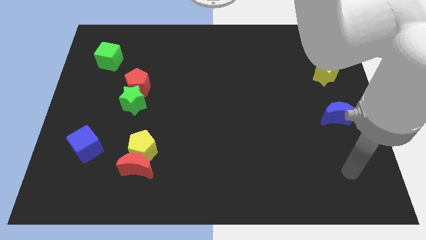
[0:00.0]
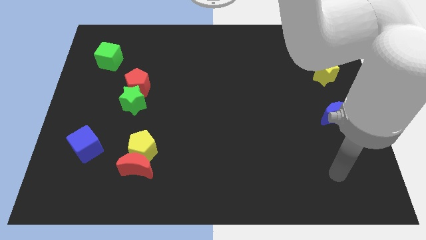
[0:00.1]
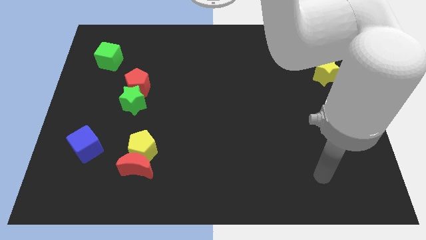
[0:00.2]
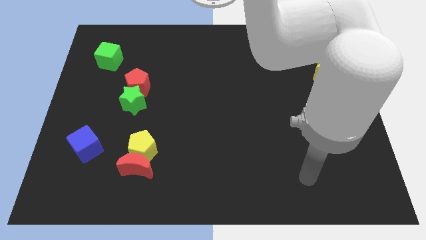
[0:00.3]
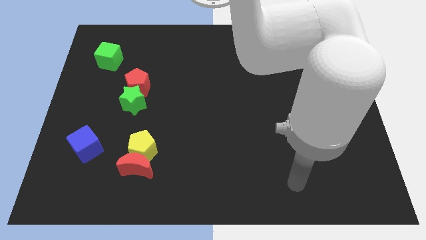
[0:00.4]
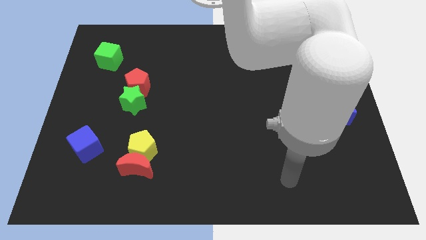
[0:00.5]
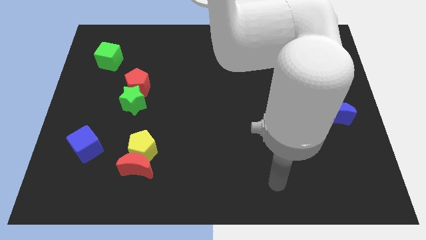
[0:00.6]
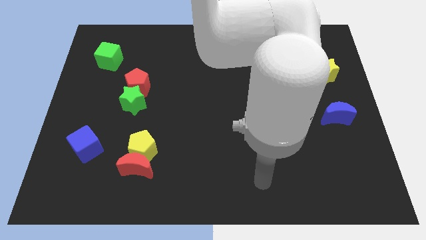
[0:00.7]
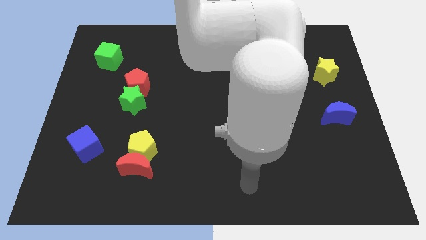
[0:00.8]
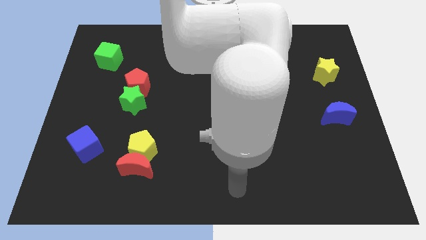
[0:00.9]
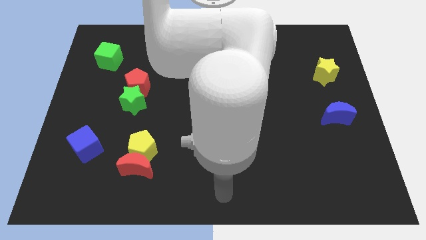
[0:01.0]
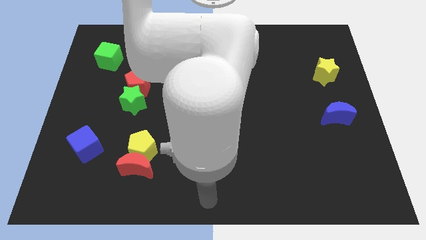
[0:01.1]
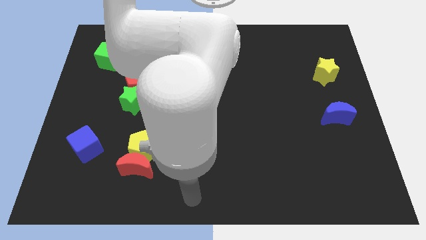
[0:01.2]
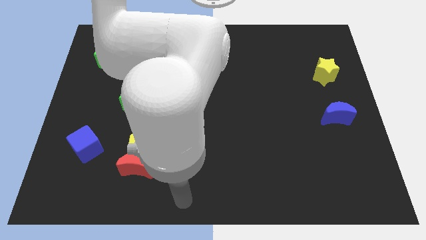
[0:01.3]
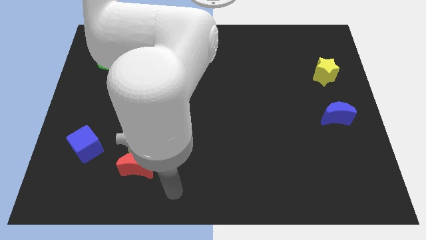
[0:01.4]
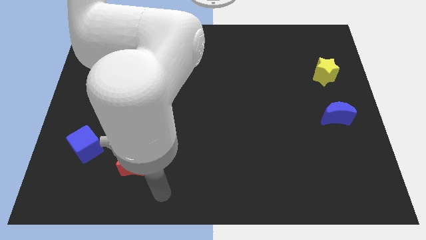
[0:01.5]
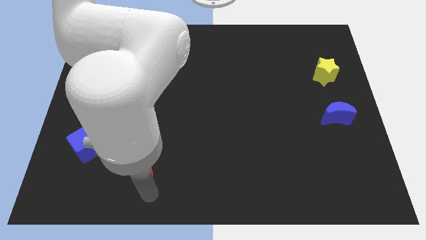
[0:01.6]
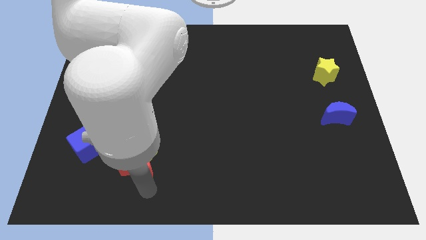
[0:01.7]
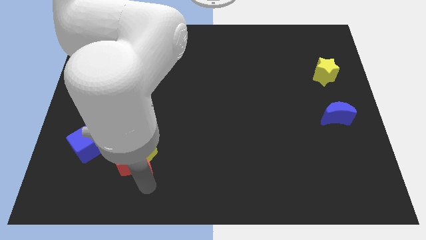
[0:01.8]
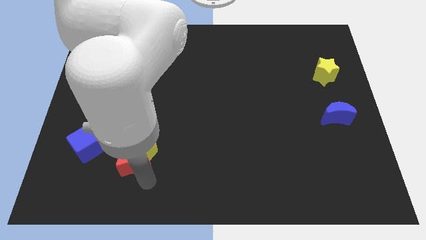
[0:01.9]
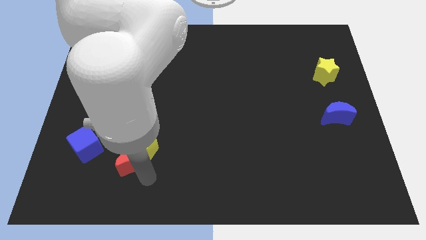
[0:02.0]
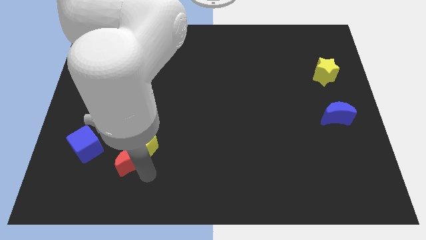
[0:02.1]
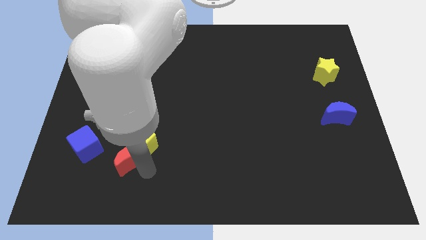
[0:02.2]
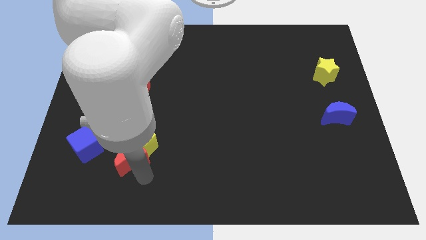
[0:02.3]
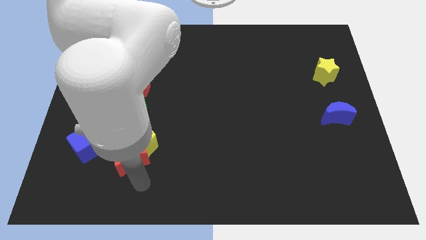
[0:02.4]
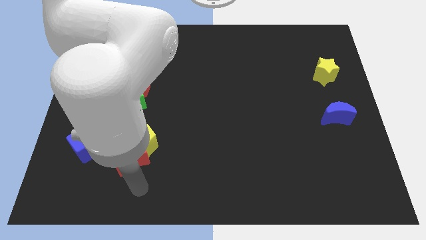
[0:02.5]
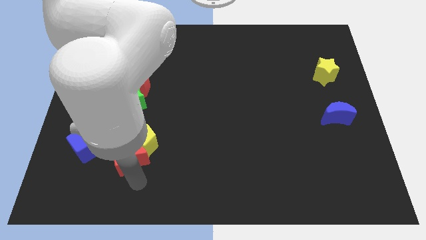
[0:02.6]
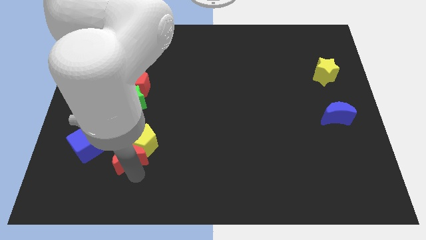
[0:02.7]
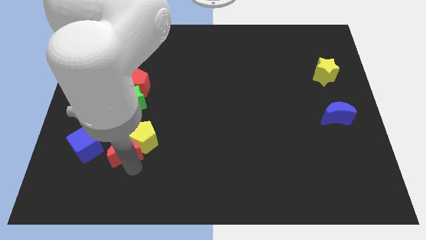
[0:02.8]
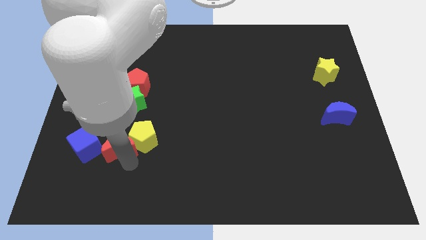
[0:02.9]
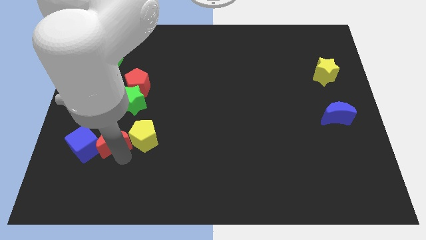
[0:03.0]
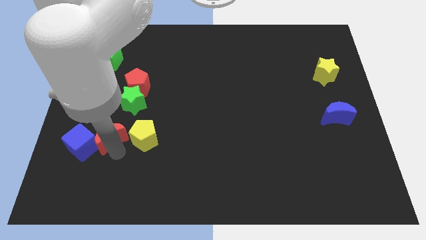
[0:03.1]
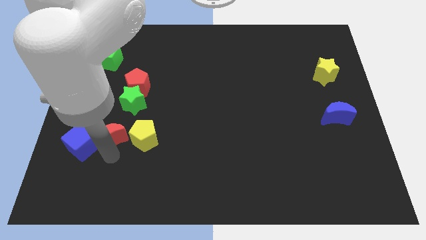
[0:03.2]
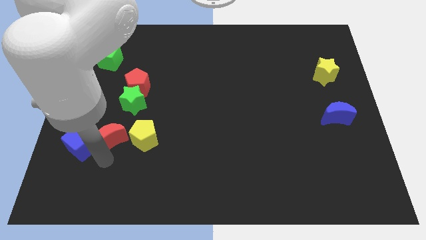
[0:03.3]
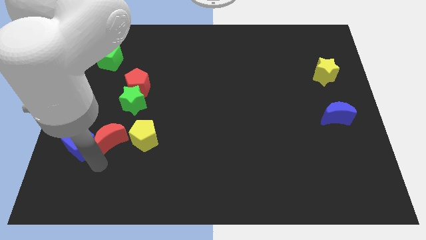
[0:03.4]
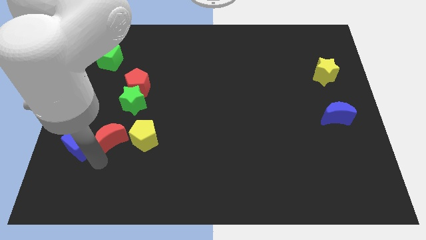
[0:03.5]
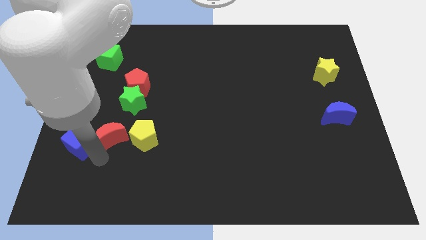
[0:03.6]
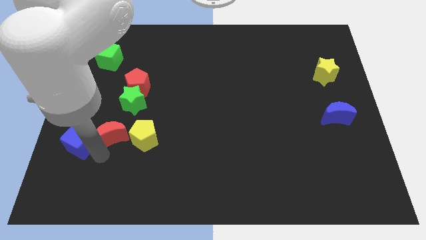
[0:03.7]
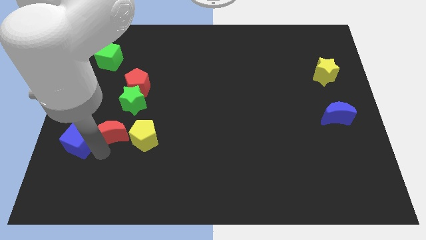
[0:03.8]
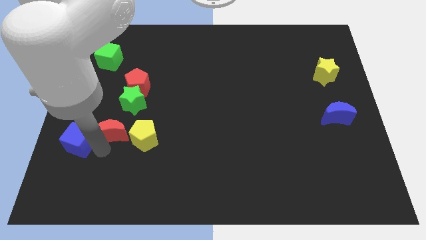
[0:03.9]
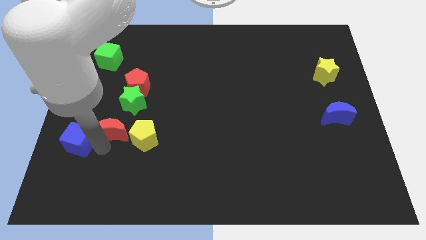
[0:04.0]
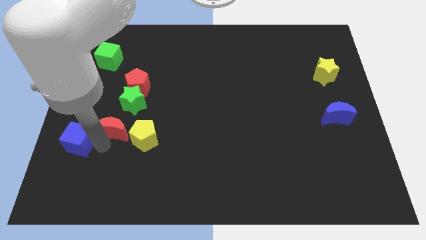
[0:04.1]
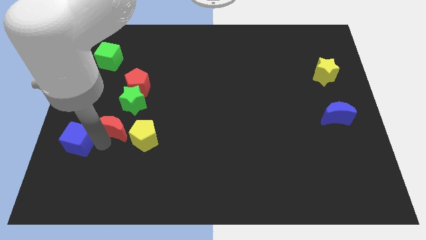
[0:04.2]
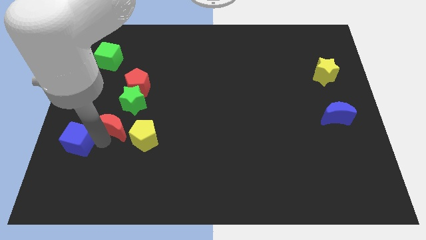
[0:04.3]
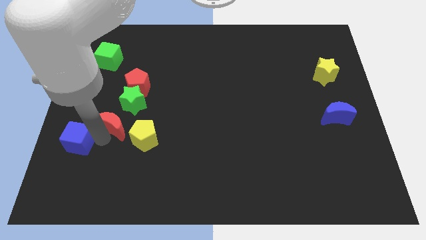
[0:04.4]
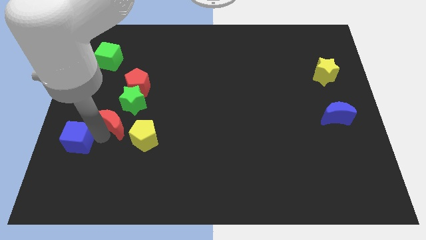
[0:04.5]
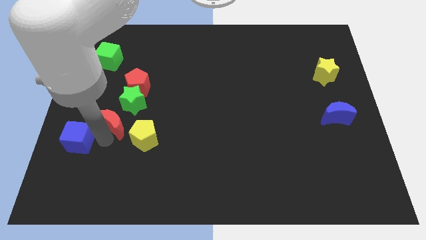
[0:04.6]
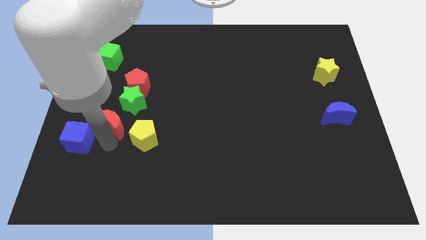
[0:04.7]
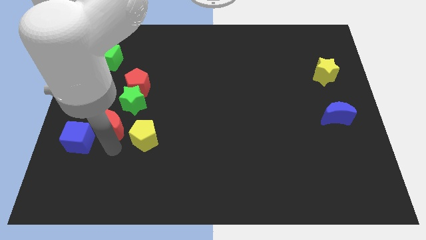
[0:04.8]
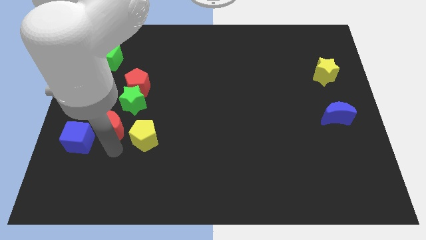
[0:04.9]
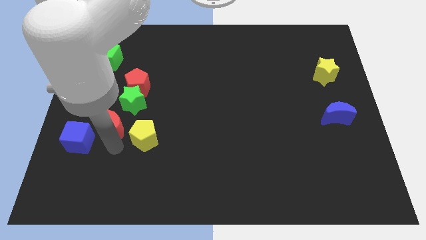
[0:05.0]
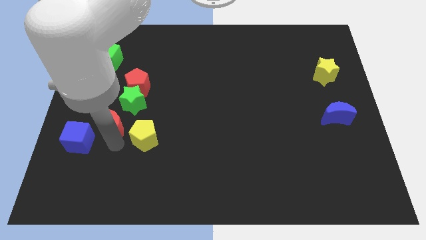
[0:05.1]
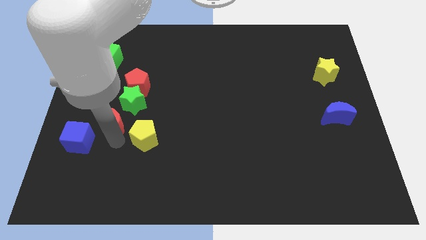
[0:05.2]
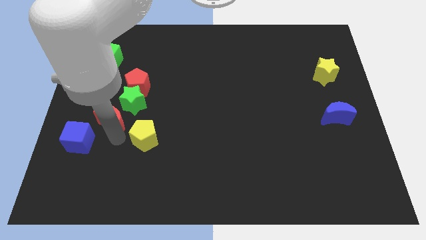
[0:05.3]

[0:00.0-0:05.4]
push the red moon to the bottom left side of the red pentagon

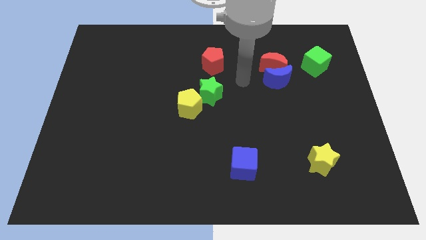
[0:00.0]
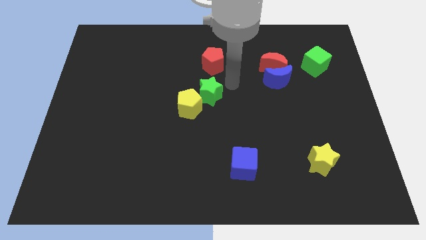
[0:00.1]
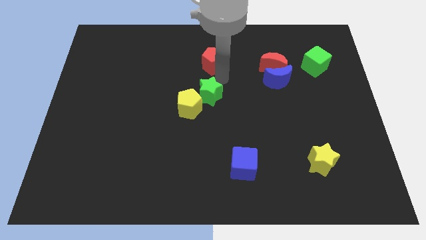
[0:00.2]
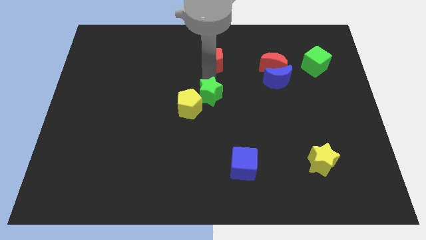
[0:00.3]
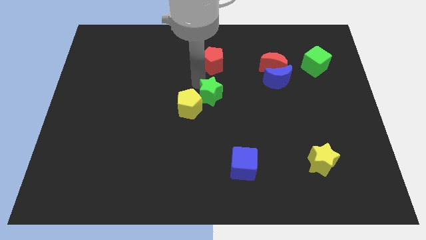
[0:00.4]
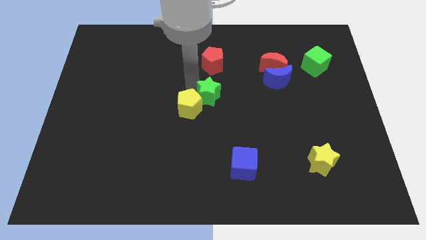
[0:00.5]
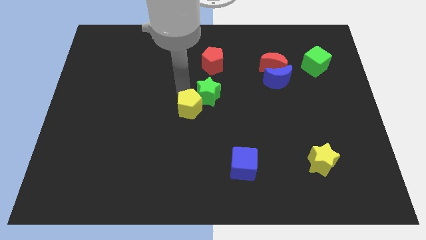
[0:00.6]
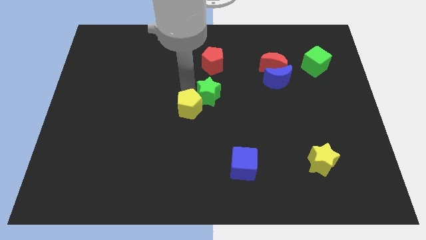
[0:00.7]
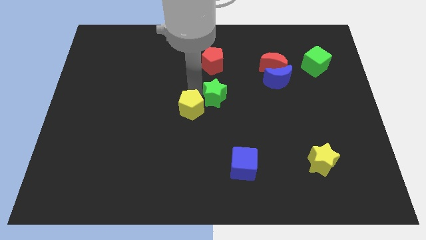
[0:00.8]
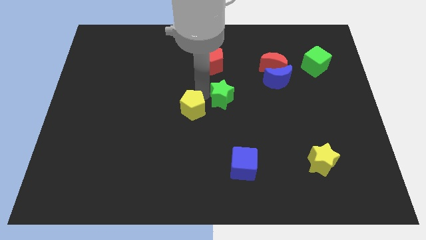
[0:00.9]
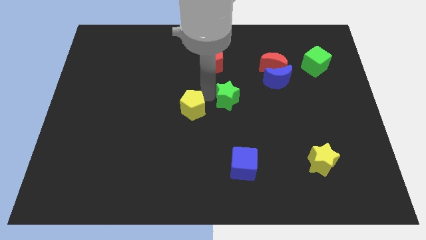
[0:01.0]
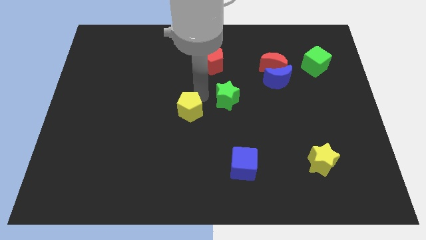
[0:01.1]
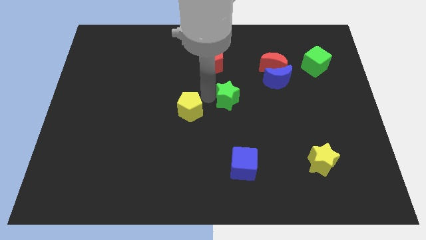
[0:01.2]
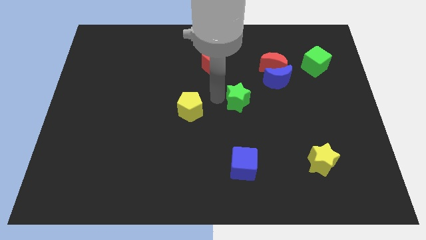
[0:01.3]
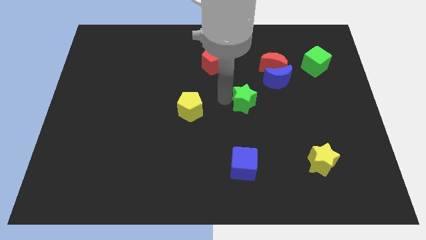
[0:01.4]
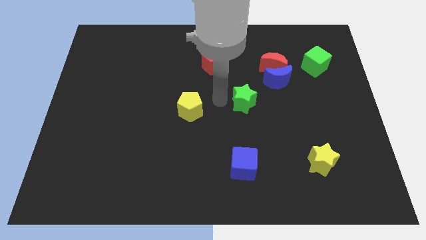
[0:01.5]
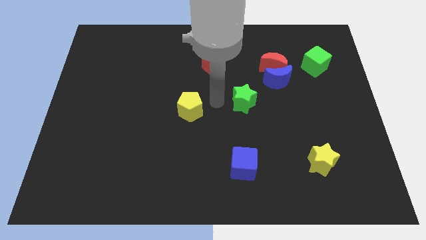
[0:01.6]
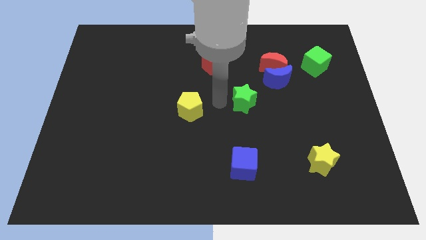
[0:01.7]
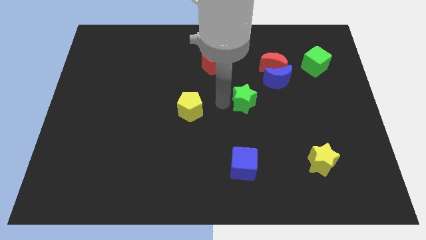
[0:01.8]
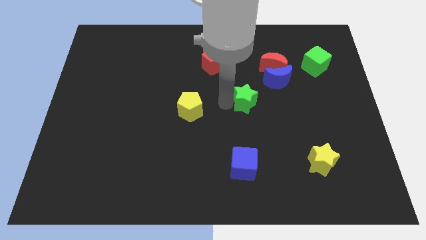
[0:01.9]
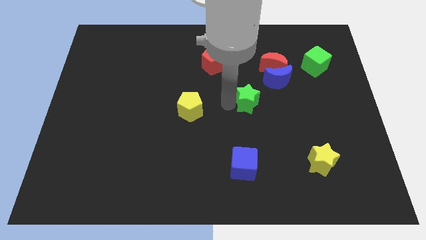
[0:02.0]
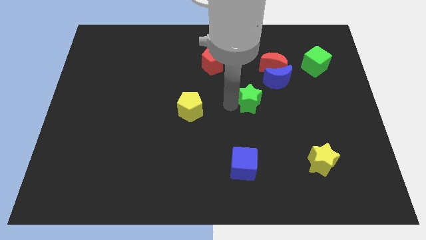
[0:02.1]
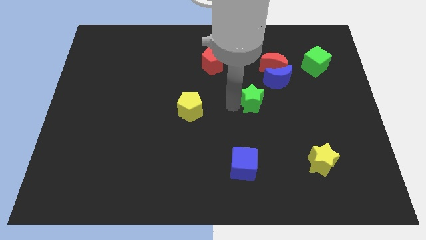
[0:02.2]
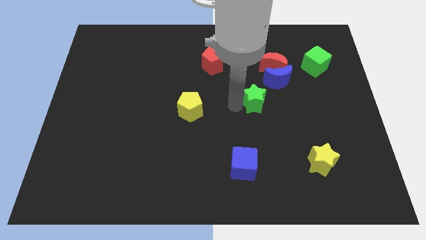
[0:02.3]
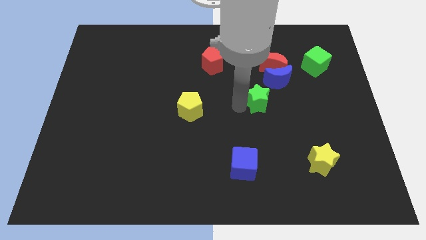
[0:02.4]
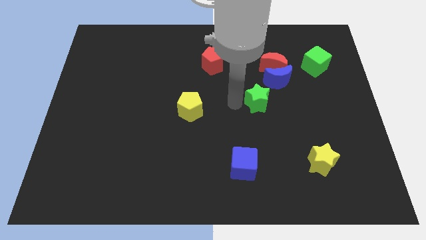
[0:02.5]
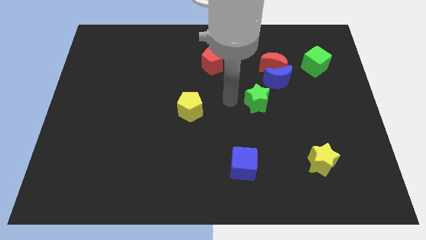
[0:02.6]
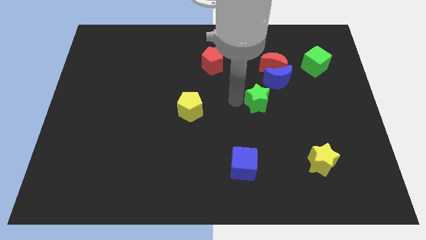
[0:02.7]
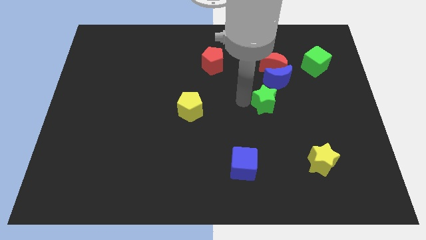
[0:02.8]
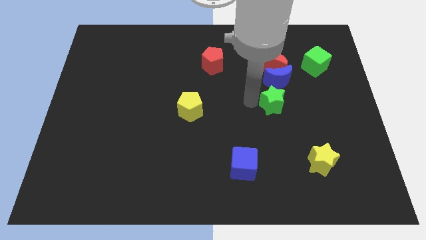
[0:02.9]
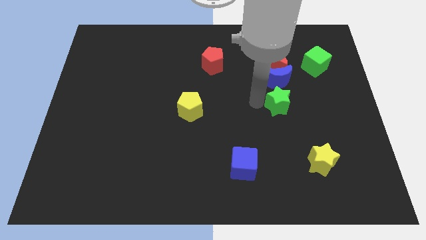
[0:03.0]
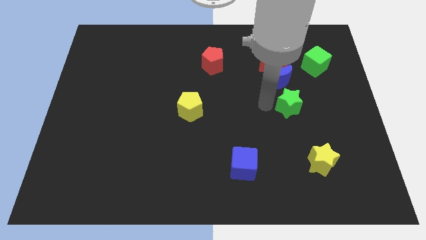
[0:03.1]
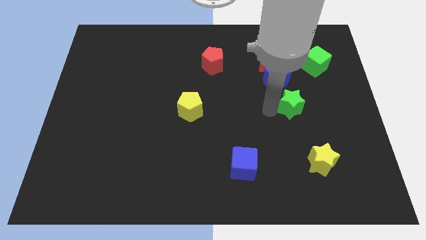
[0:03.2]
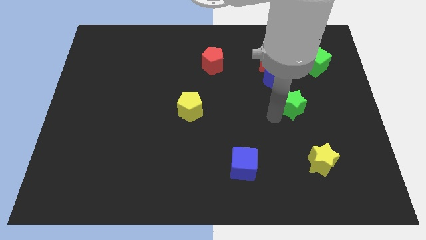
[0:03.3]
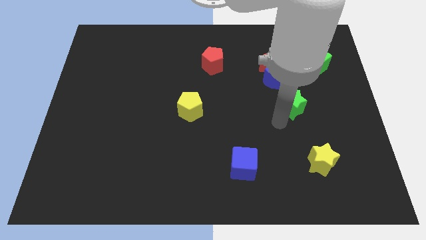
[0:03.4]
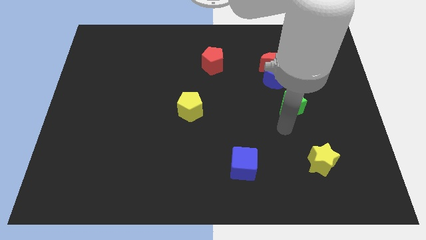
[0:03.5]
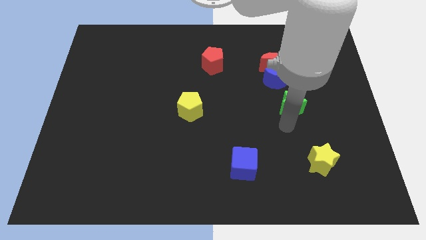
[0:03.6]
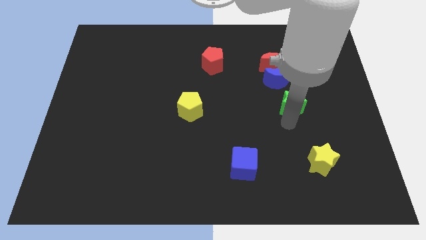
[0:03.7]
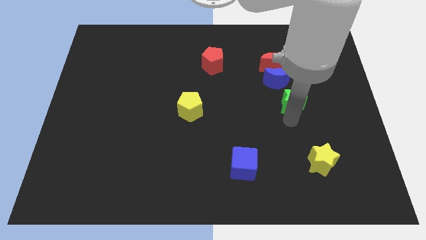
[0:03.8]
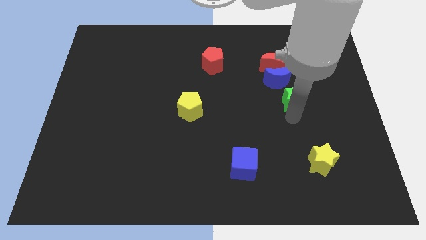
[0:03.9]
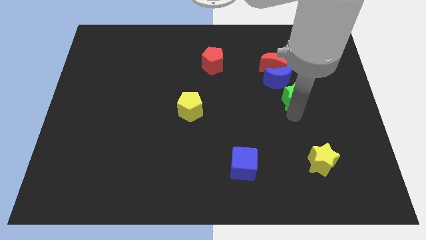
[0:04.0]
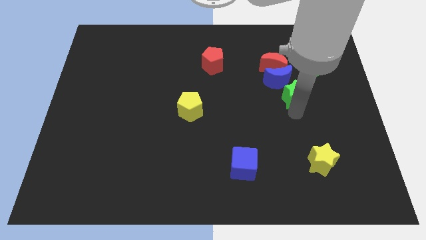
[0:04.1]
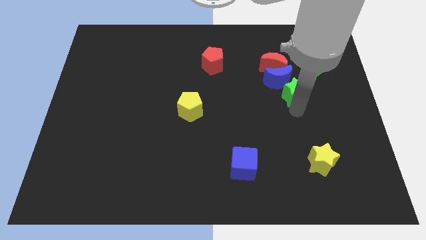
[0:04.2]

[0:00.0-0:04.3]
put the green star diagonally down and to the left of the green cube
